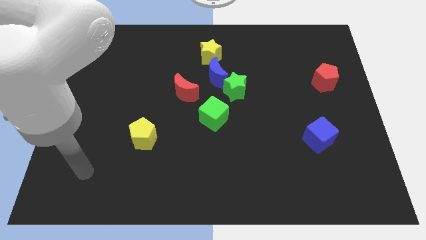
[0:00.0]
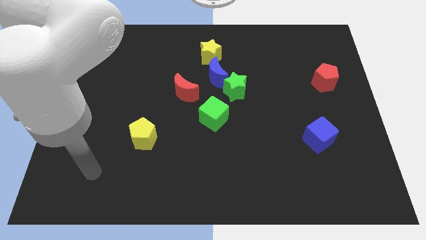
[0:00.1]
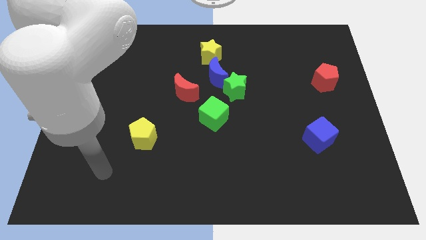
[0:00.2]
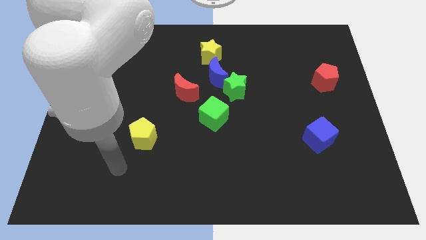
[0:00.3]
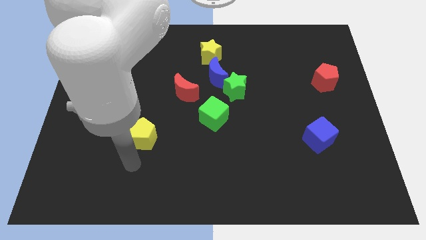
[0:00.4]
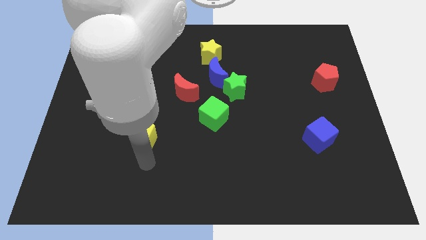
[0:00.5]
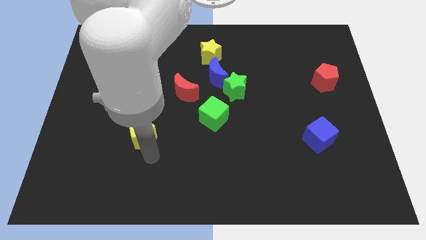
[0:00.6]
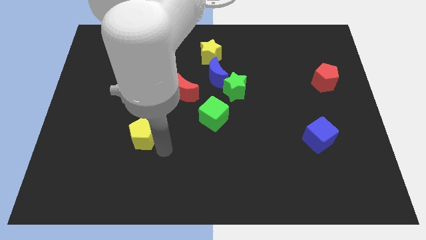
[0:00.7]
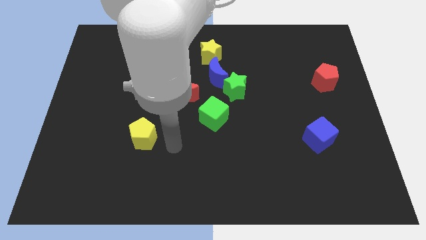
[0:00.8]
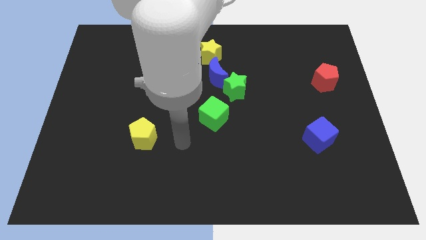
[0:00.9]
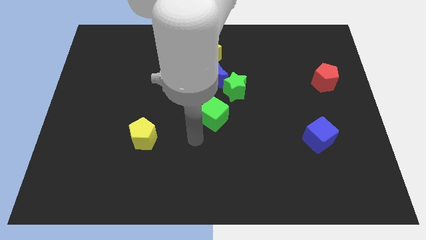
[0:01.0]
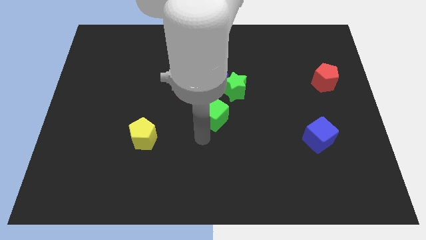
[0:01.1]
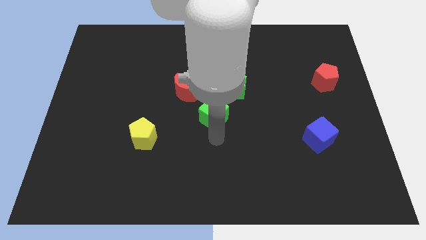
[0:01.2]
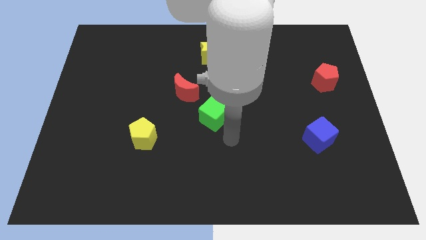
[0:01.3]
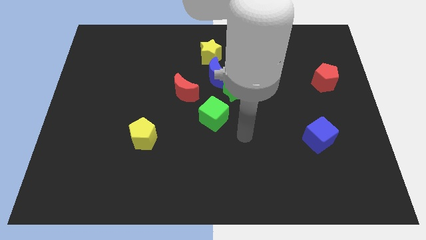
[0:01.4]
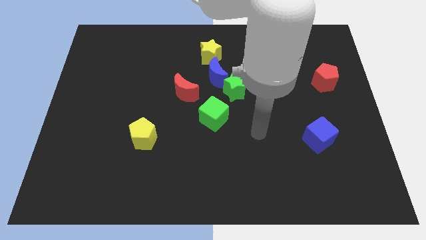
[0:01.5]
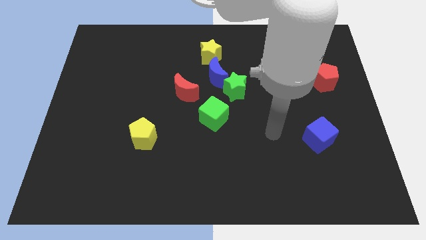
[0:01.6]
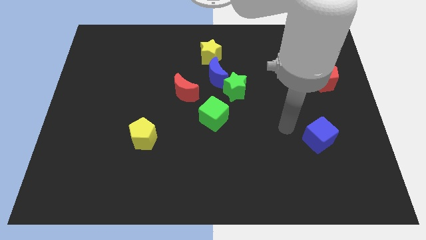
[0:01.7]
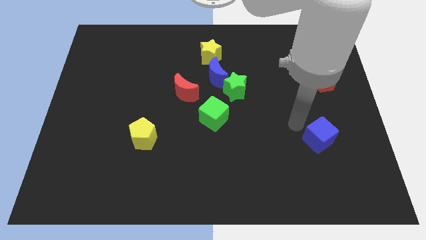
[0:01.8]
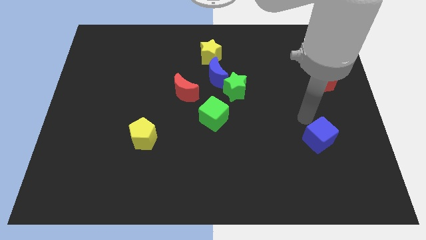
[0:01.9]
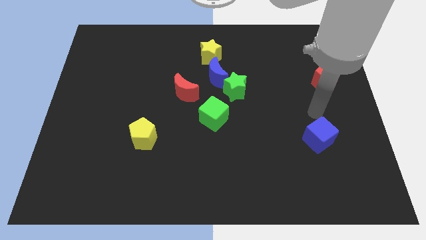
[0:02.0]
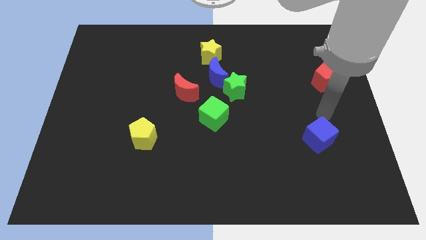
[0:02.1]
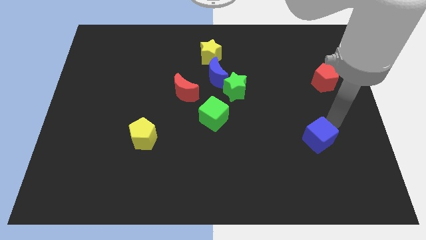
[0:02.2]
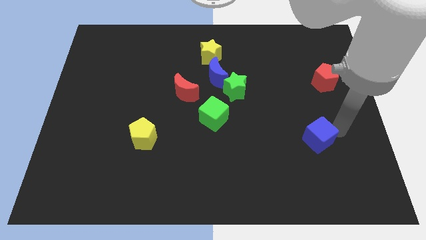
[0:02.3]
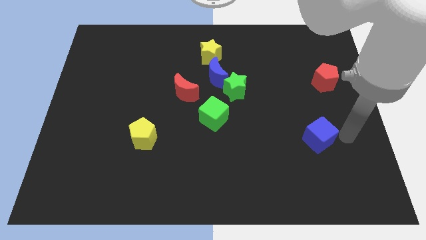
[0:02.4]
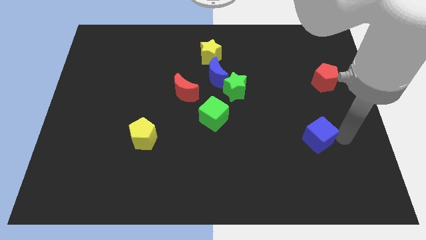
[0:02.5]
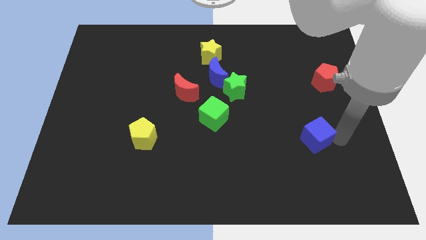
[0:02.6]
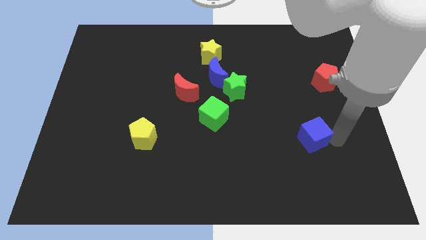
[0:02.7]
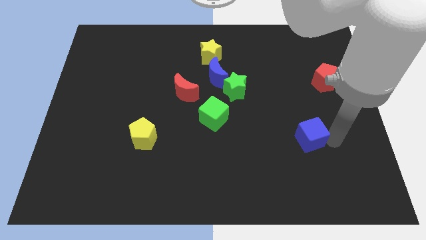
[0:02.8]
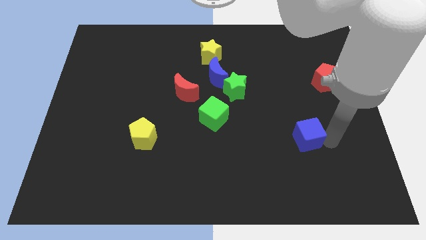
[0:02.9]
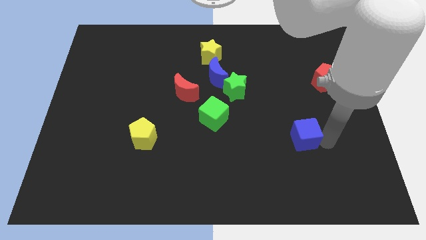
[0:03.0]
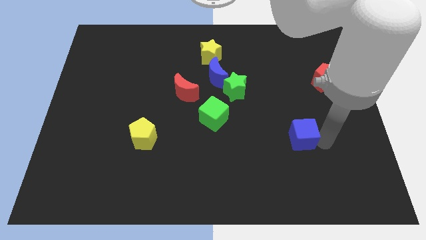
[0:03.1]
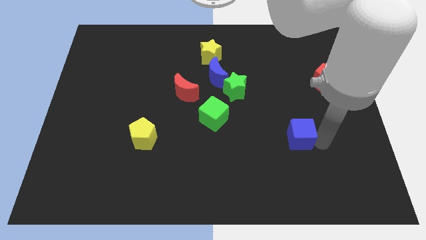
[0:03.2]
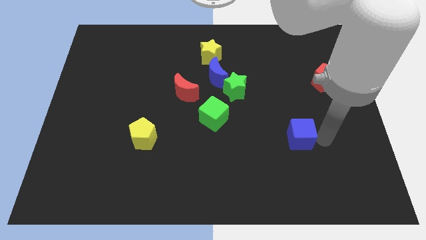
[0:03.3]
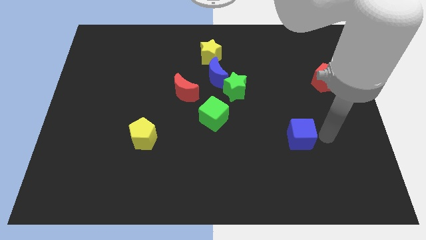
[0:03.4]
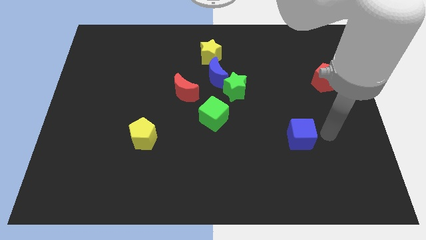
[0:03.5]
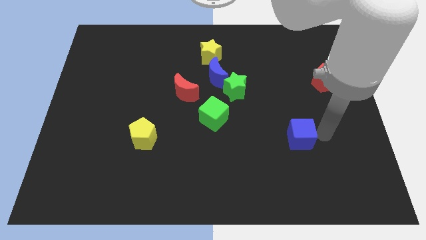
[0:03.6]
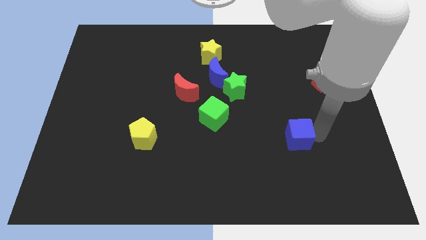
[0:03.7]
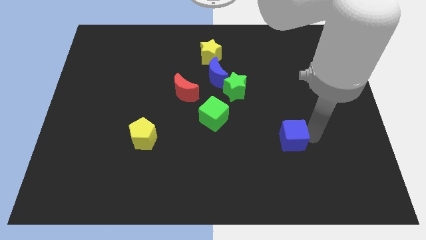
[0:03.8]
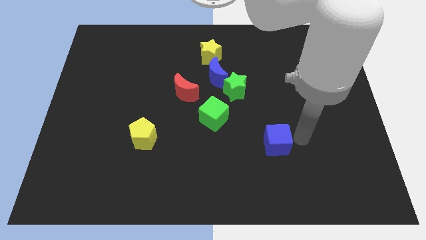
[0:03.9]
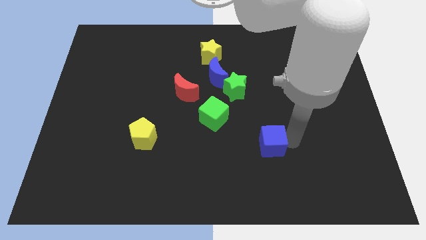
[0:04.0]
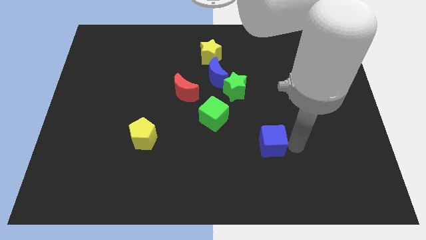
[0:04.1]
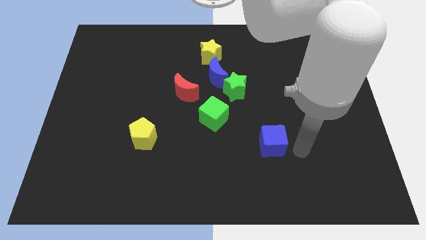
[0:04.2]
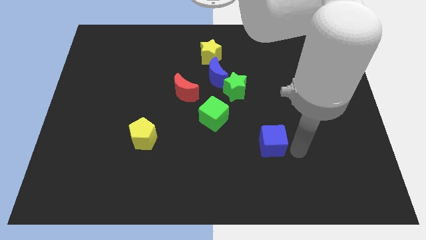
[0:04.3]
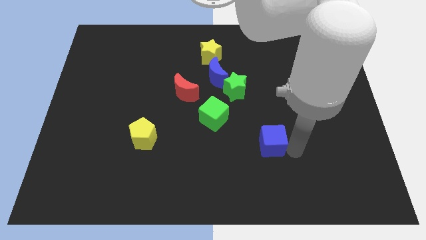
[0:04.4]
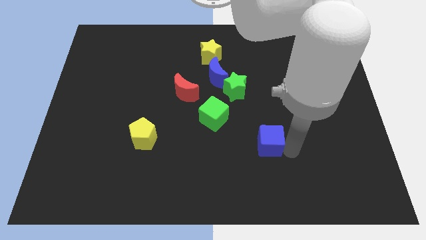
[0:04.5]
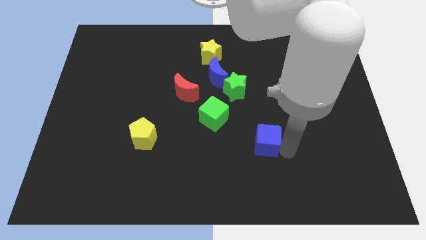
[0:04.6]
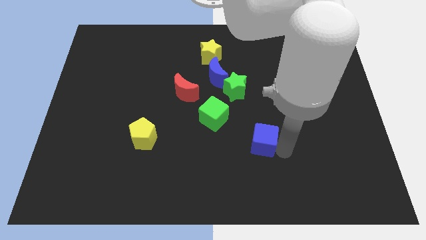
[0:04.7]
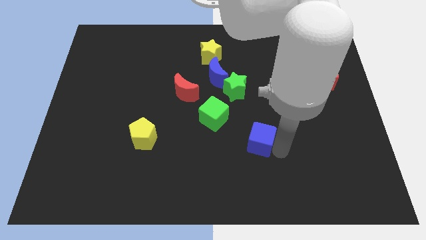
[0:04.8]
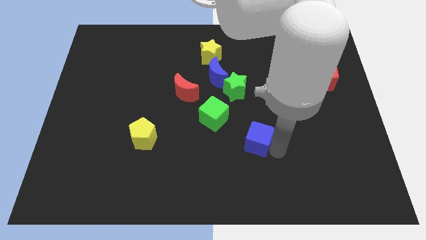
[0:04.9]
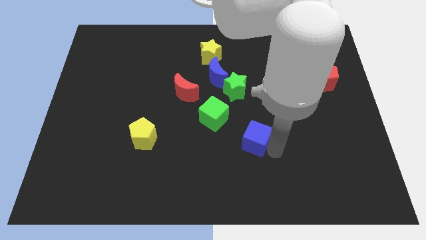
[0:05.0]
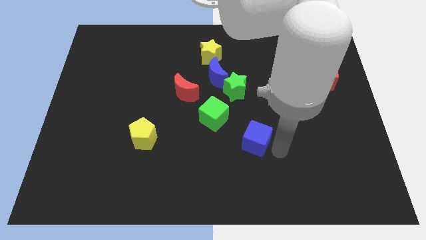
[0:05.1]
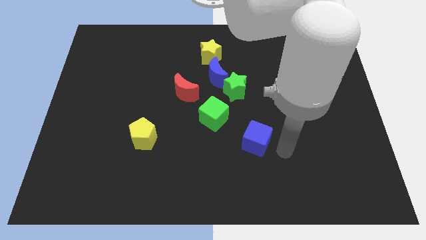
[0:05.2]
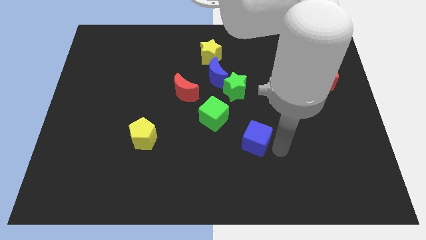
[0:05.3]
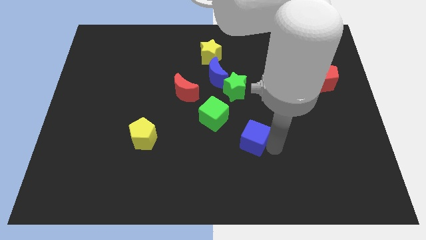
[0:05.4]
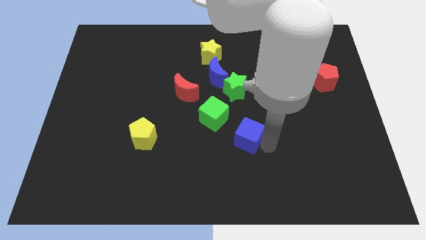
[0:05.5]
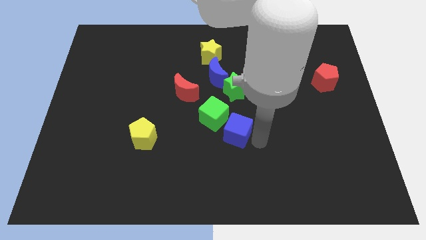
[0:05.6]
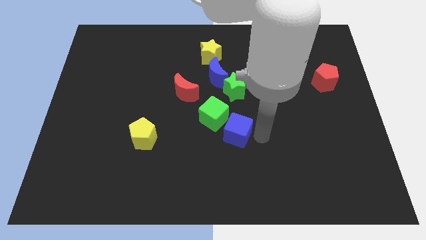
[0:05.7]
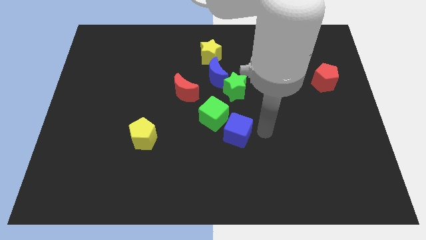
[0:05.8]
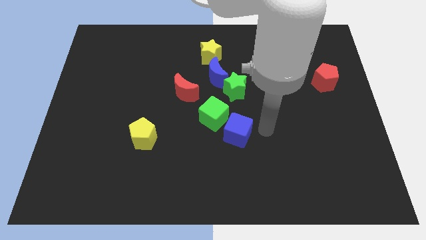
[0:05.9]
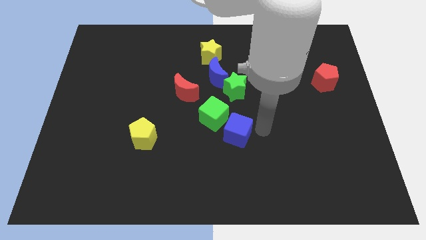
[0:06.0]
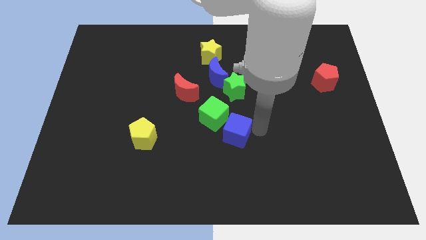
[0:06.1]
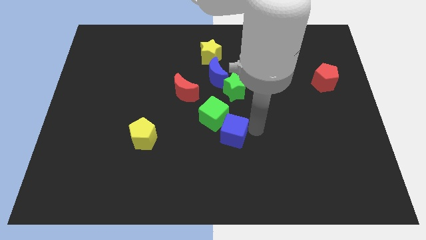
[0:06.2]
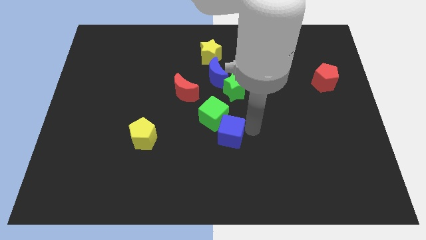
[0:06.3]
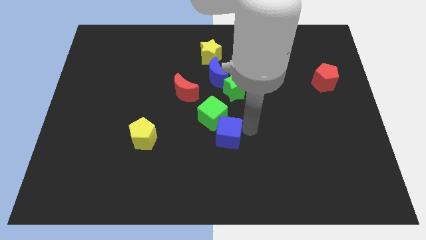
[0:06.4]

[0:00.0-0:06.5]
push the blue cube left

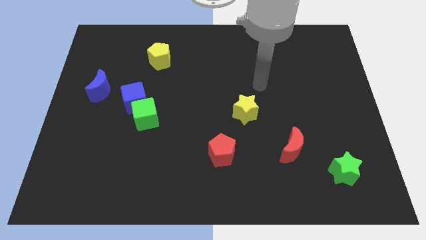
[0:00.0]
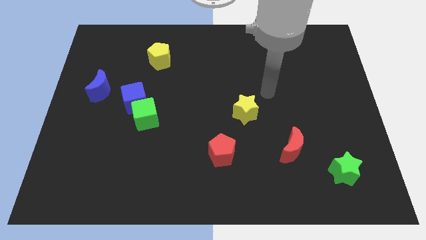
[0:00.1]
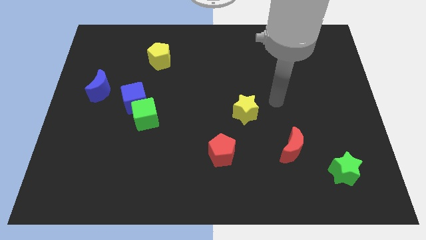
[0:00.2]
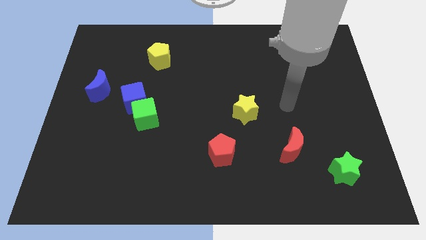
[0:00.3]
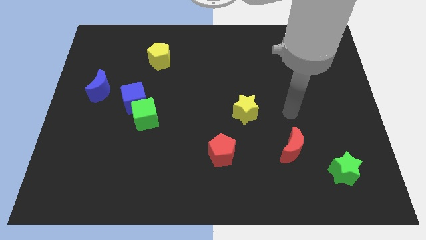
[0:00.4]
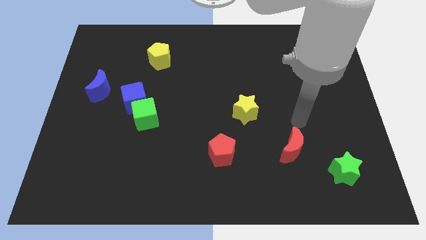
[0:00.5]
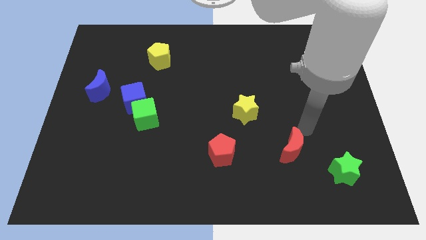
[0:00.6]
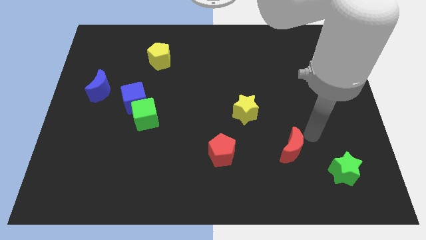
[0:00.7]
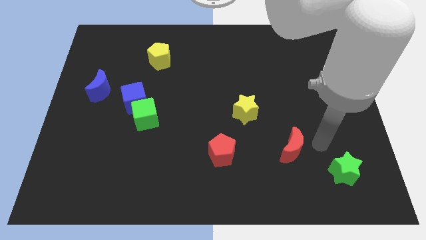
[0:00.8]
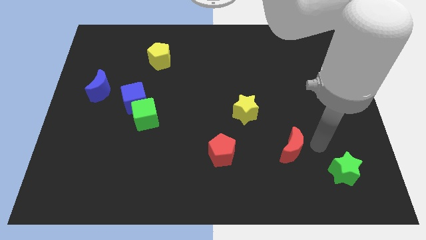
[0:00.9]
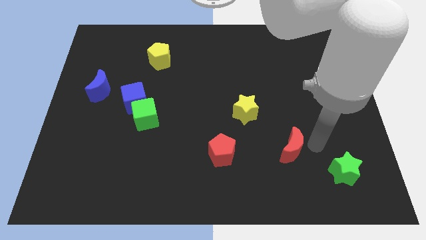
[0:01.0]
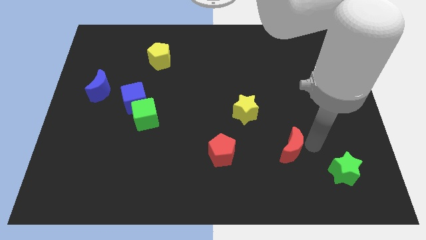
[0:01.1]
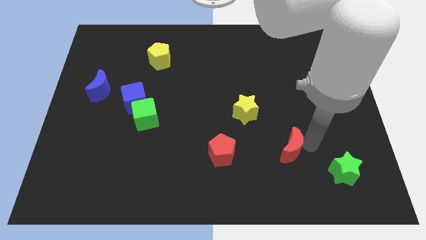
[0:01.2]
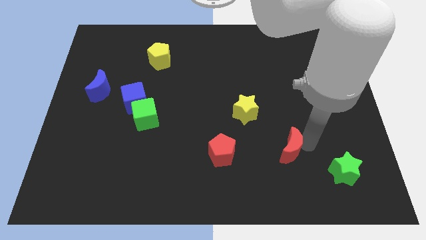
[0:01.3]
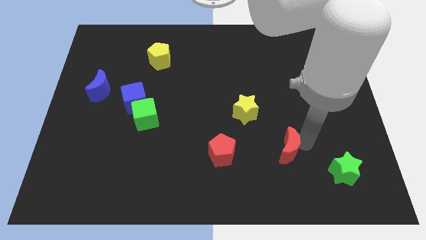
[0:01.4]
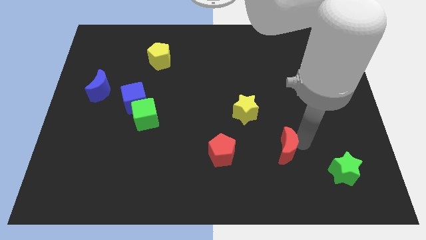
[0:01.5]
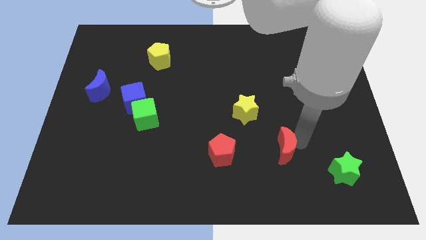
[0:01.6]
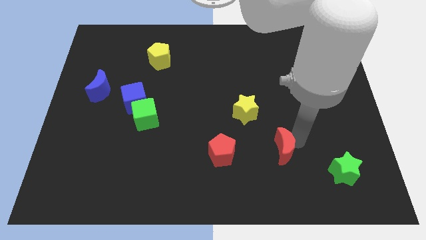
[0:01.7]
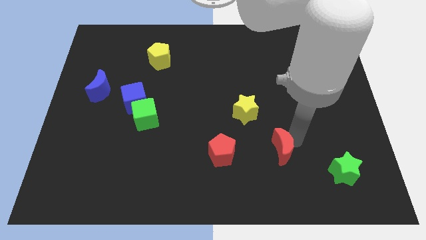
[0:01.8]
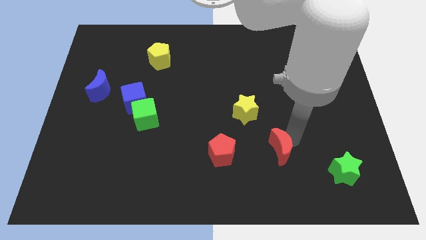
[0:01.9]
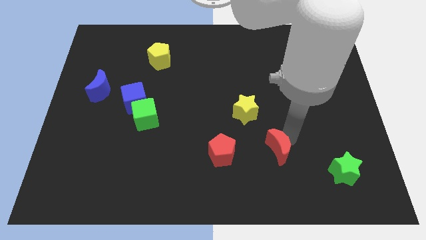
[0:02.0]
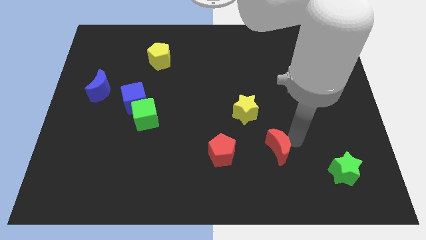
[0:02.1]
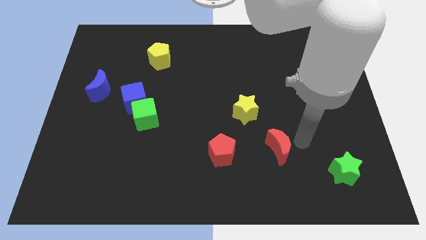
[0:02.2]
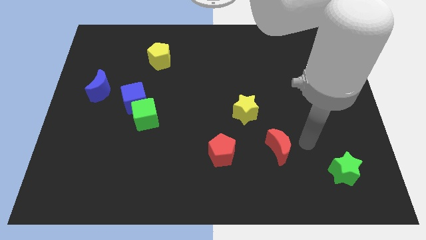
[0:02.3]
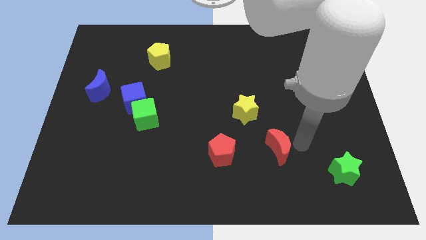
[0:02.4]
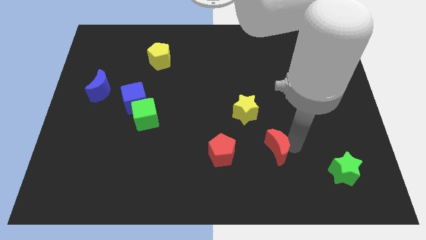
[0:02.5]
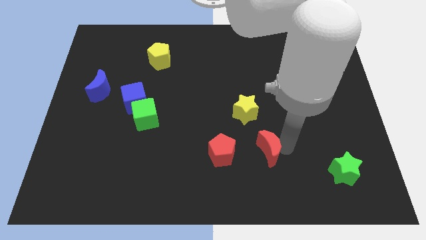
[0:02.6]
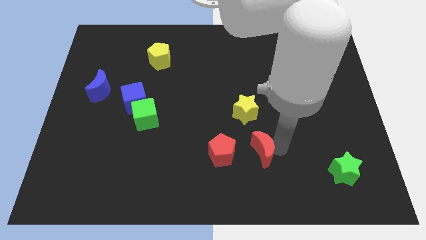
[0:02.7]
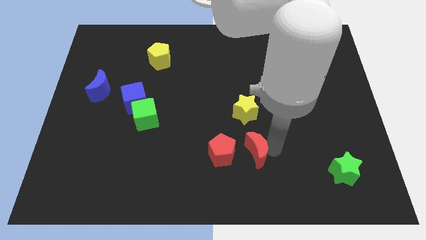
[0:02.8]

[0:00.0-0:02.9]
slightly move the red moon to the left
